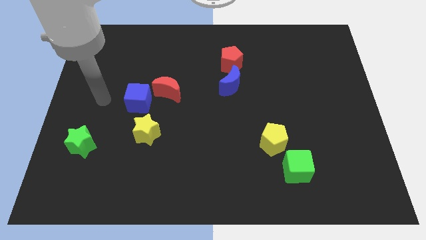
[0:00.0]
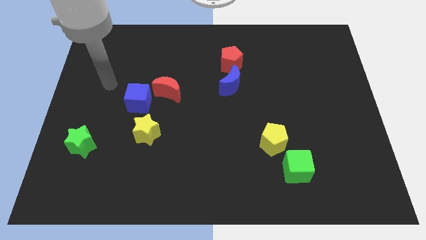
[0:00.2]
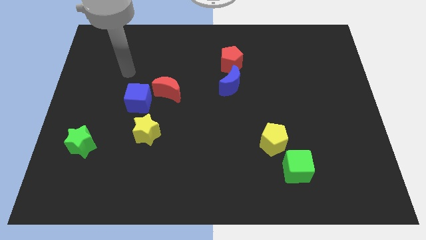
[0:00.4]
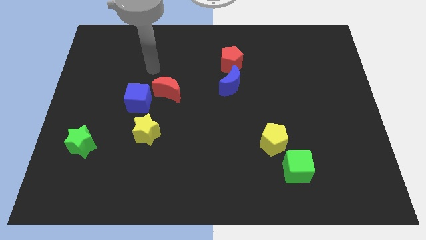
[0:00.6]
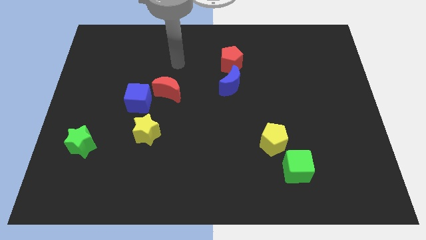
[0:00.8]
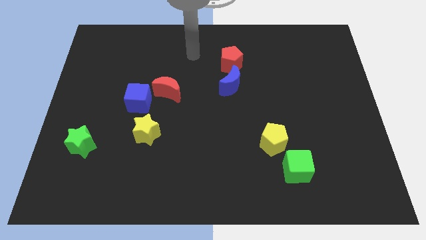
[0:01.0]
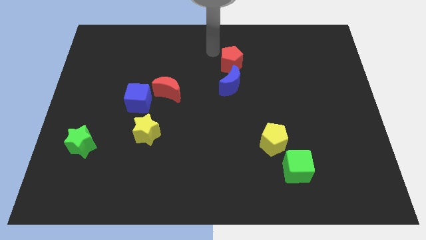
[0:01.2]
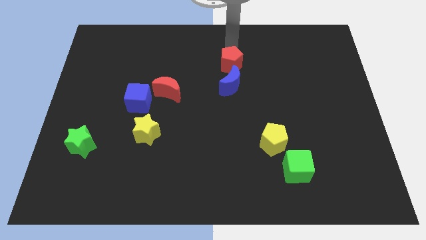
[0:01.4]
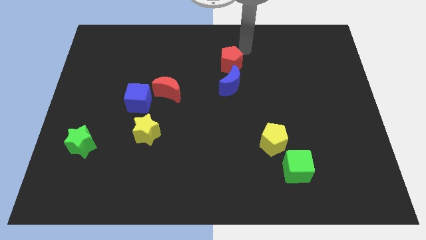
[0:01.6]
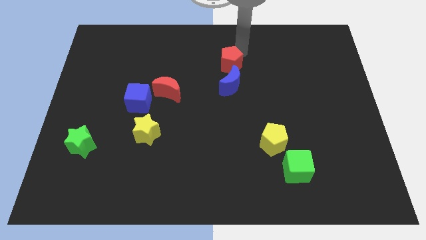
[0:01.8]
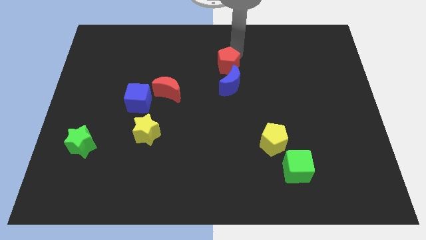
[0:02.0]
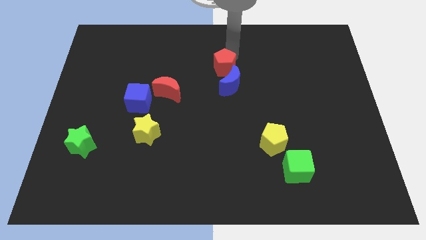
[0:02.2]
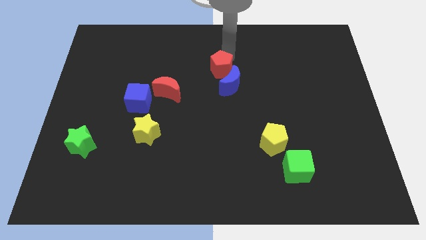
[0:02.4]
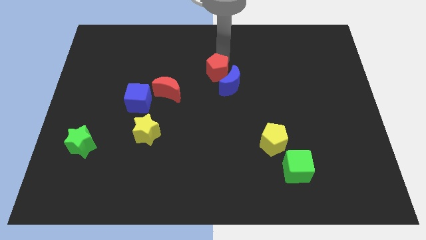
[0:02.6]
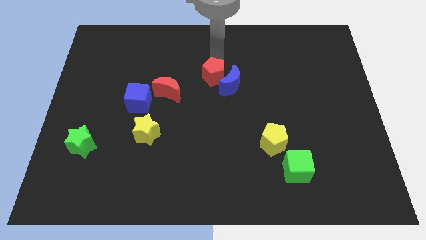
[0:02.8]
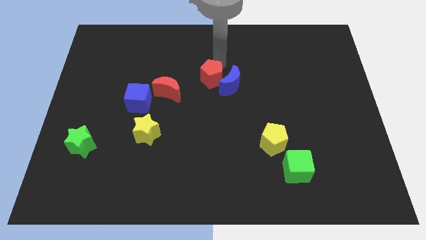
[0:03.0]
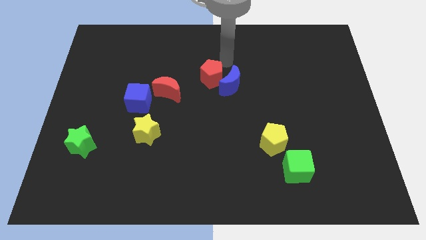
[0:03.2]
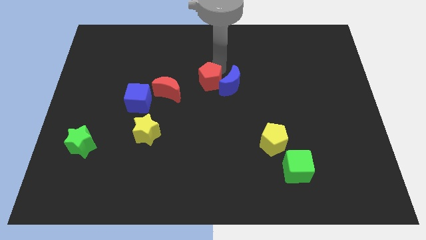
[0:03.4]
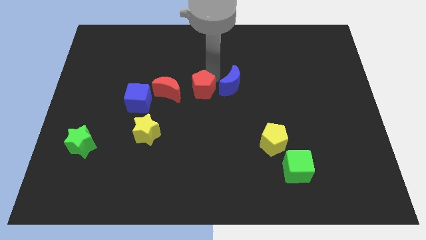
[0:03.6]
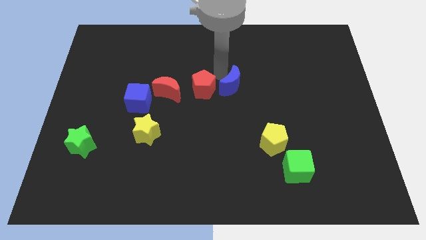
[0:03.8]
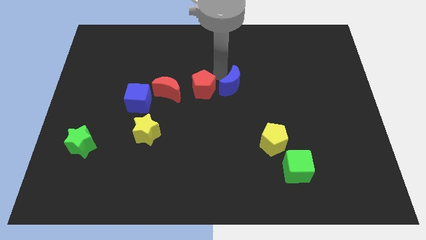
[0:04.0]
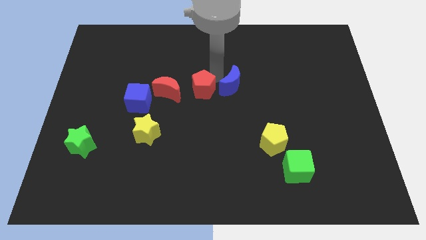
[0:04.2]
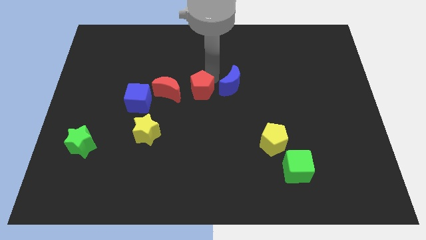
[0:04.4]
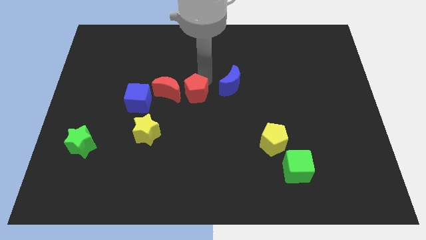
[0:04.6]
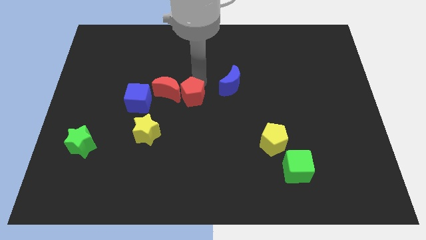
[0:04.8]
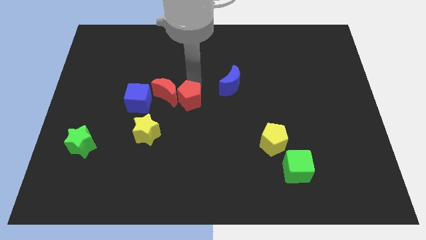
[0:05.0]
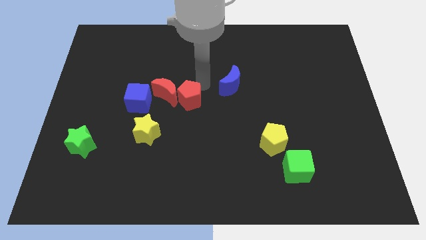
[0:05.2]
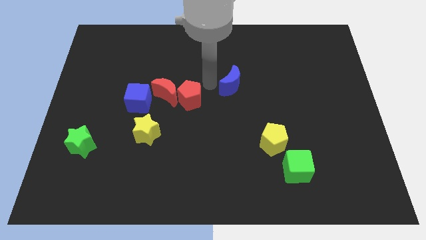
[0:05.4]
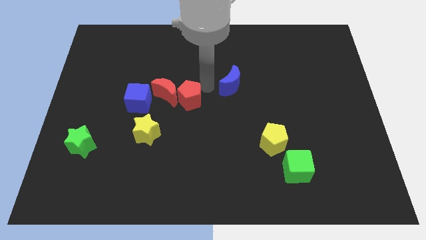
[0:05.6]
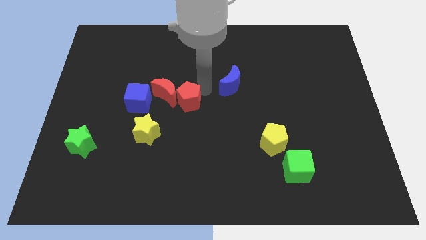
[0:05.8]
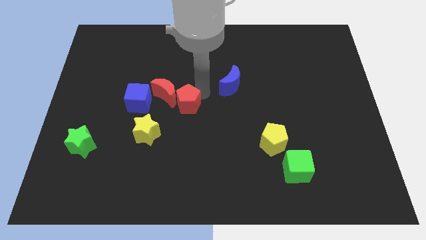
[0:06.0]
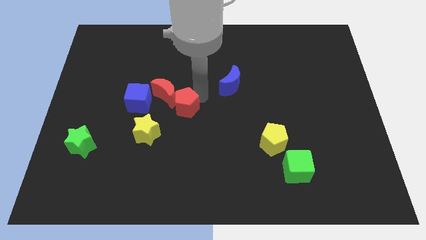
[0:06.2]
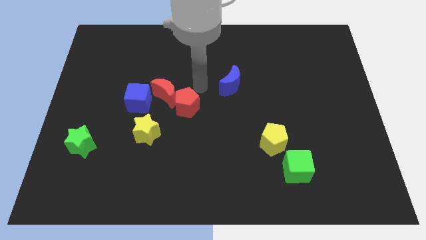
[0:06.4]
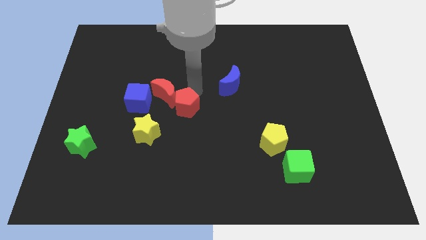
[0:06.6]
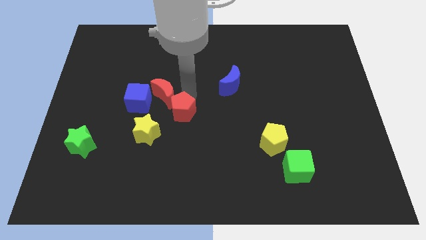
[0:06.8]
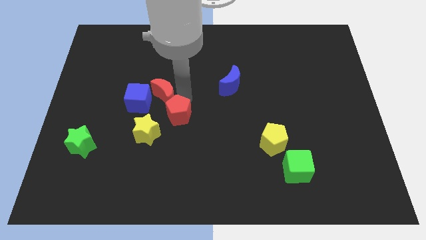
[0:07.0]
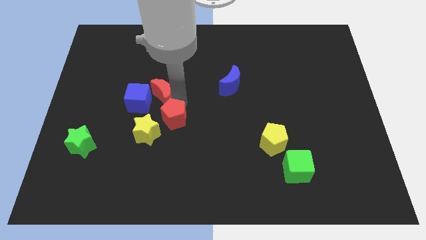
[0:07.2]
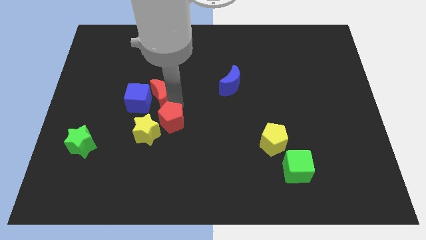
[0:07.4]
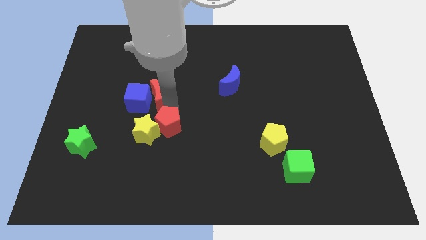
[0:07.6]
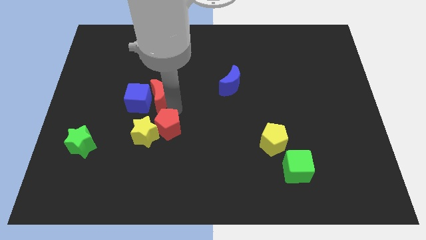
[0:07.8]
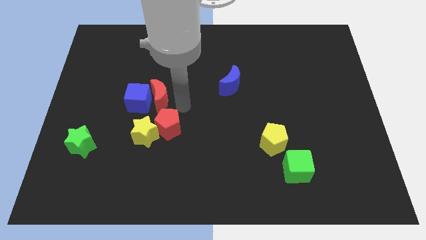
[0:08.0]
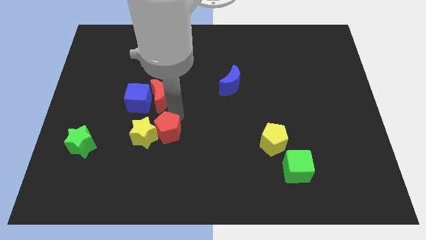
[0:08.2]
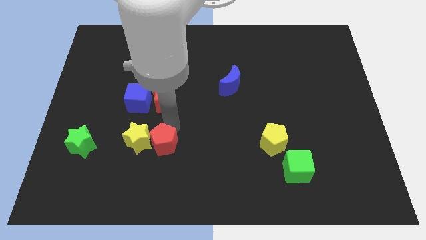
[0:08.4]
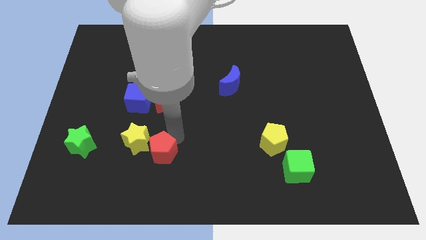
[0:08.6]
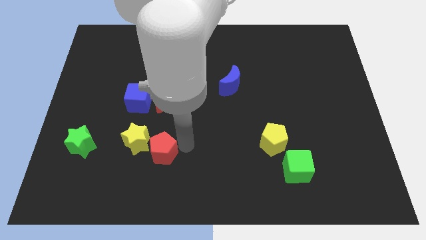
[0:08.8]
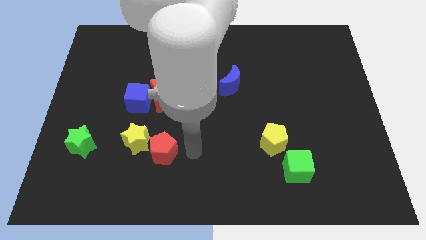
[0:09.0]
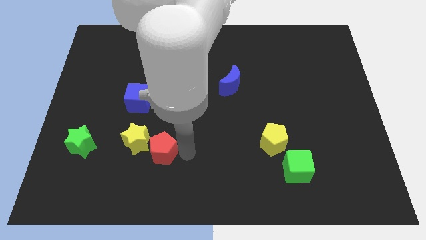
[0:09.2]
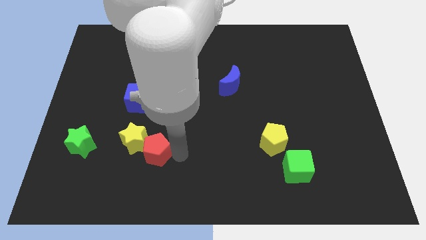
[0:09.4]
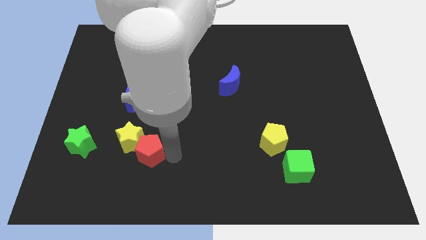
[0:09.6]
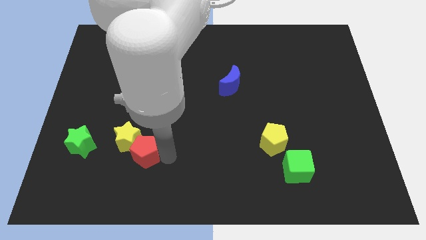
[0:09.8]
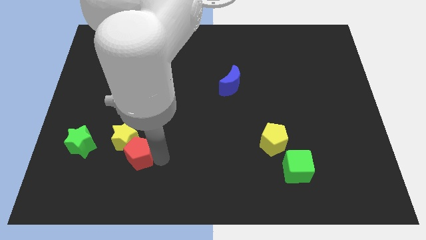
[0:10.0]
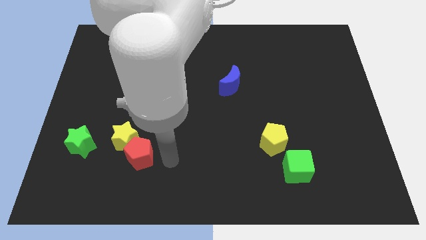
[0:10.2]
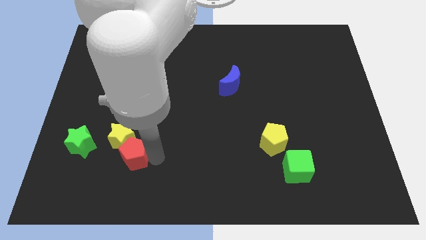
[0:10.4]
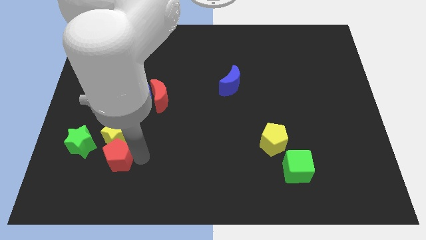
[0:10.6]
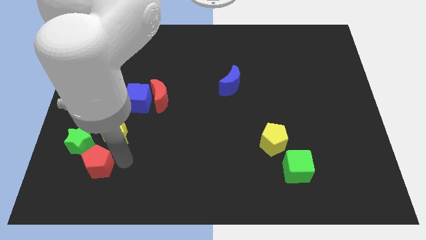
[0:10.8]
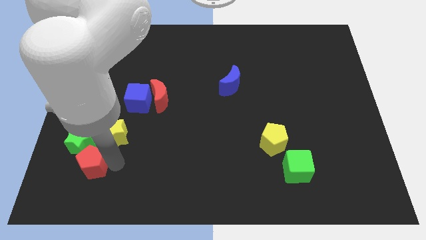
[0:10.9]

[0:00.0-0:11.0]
push the red pentagon to the green star
